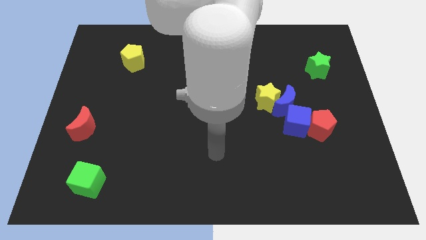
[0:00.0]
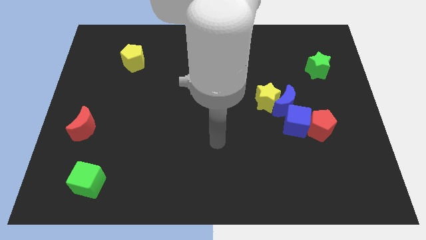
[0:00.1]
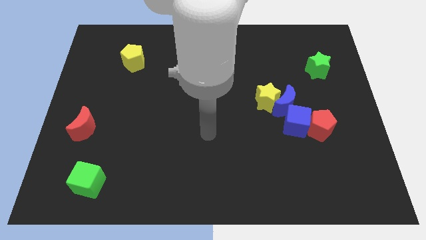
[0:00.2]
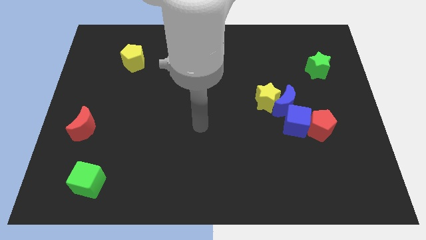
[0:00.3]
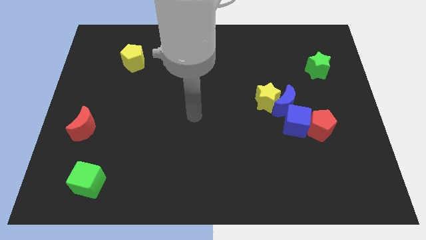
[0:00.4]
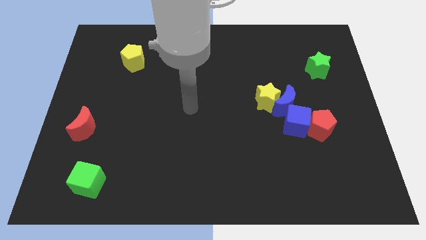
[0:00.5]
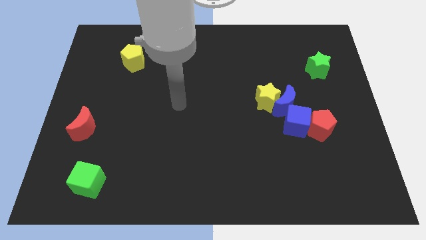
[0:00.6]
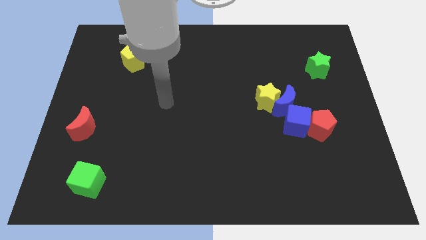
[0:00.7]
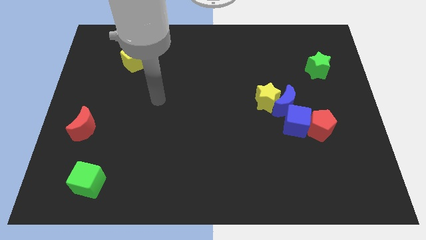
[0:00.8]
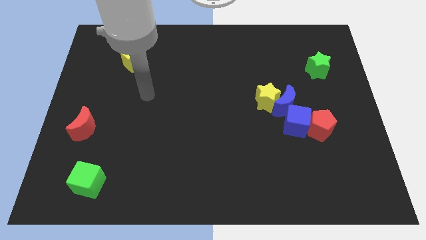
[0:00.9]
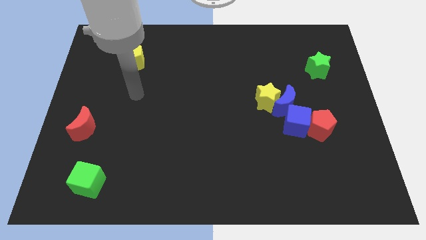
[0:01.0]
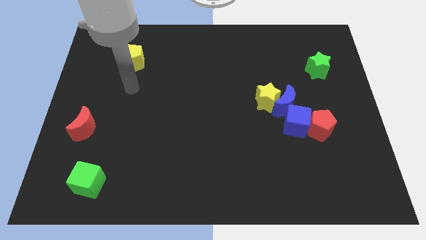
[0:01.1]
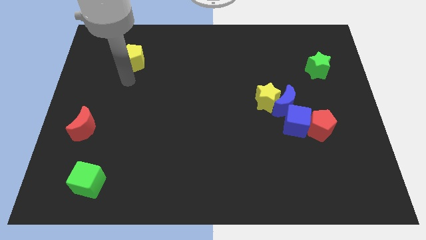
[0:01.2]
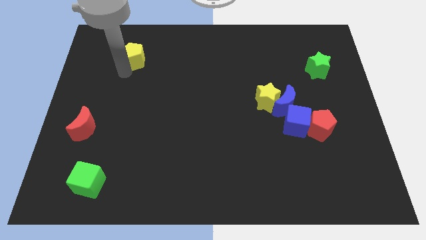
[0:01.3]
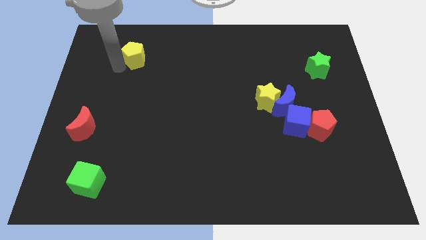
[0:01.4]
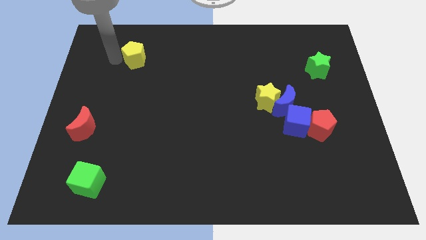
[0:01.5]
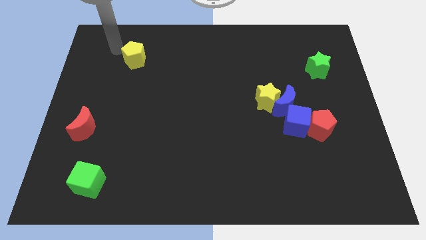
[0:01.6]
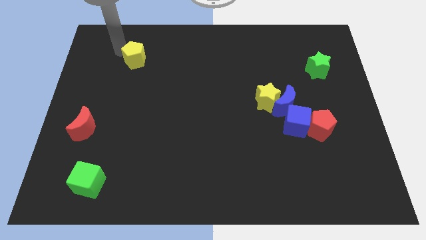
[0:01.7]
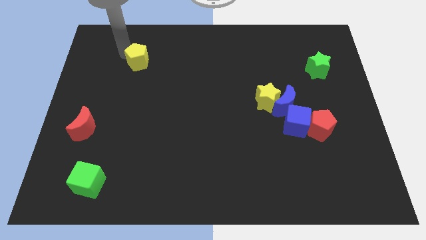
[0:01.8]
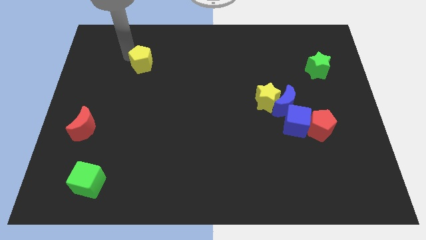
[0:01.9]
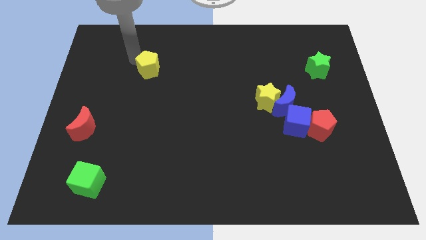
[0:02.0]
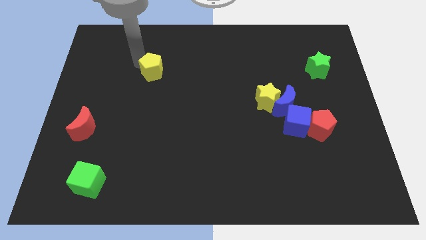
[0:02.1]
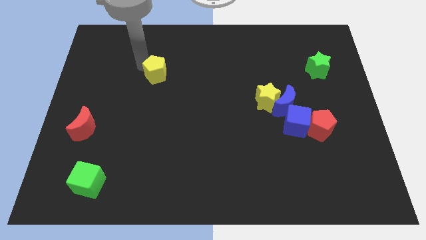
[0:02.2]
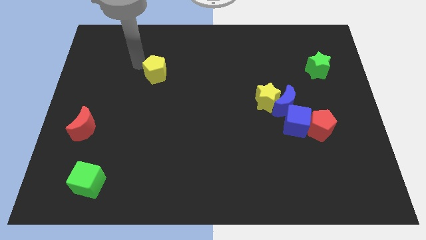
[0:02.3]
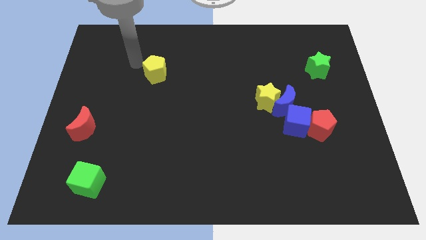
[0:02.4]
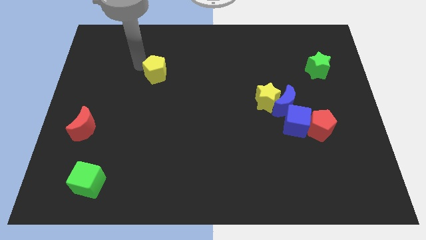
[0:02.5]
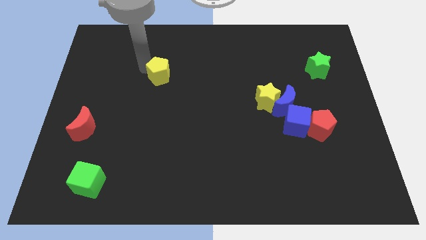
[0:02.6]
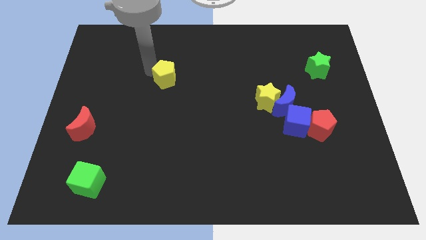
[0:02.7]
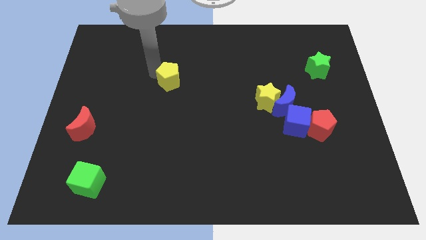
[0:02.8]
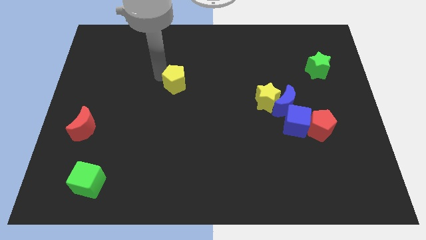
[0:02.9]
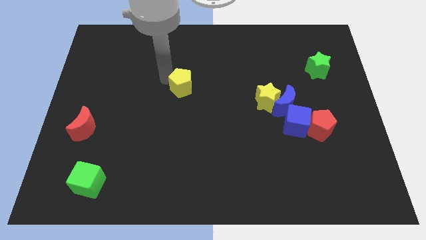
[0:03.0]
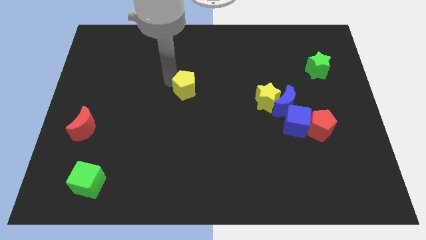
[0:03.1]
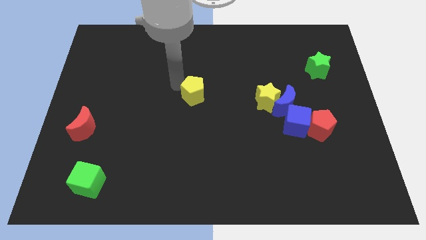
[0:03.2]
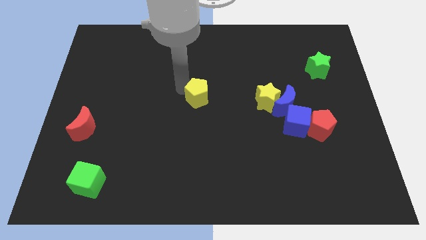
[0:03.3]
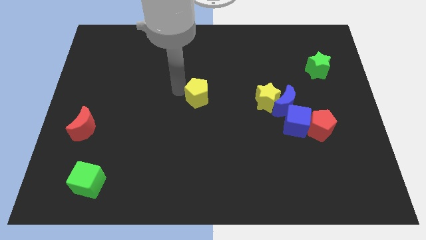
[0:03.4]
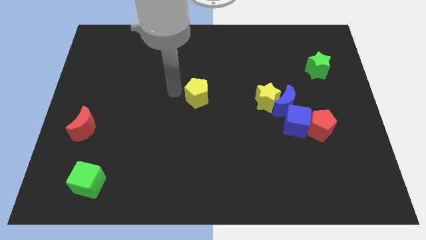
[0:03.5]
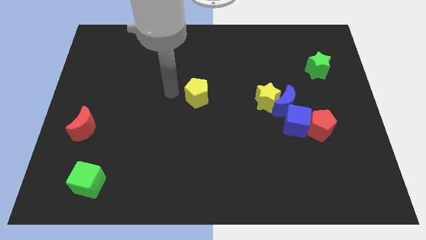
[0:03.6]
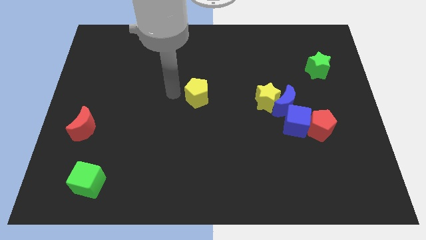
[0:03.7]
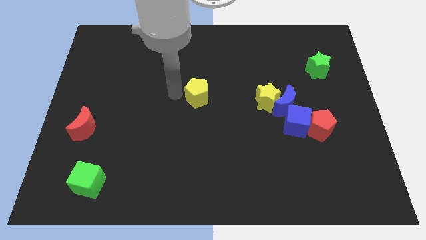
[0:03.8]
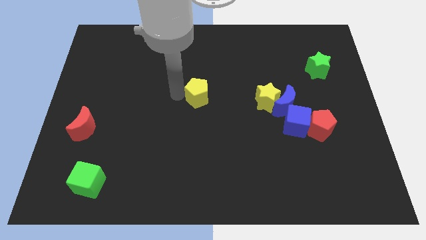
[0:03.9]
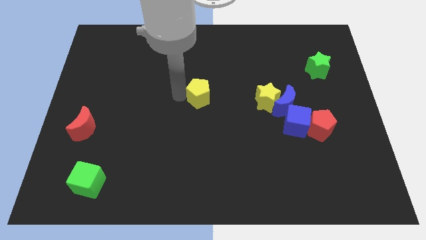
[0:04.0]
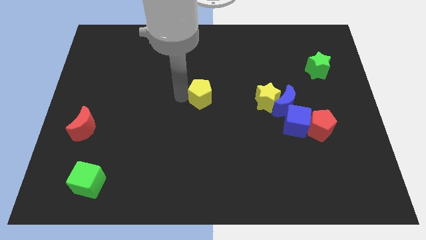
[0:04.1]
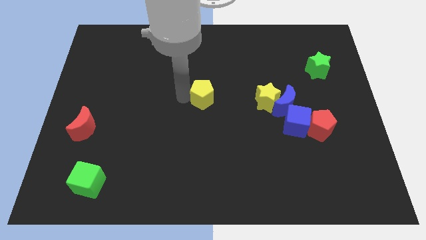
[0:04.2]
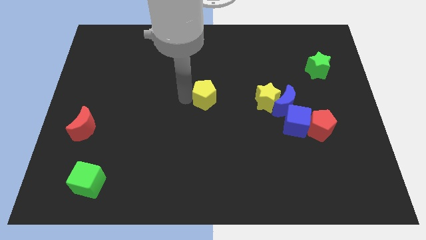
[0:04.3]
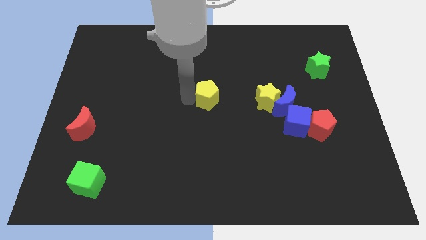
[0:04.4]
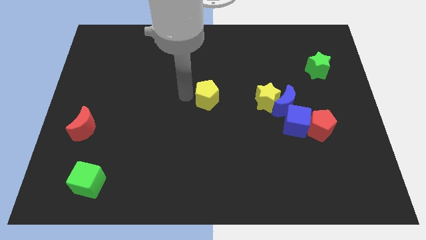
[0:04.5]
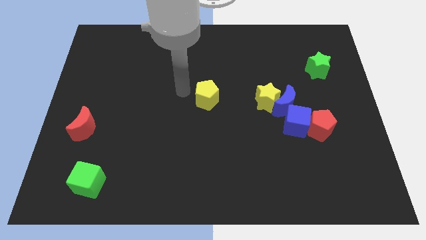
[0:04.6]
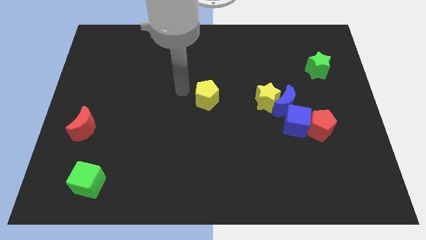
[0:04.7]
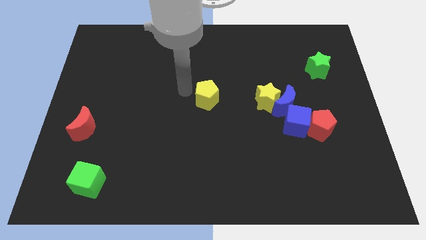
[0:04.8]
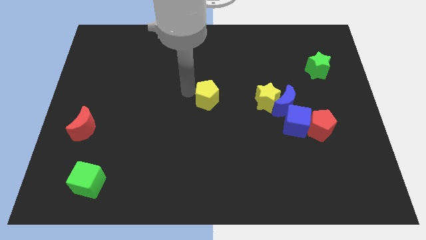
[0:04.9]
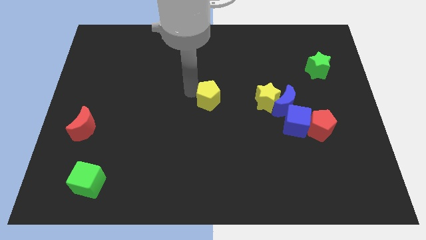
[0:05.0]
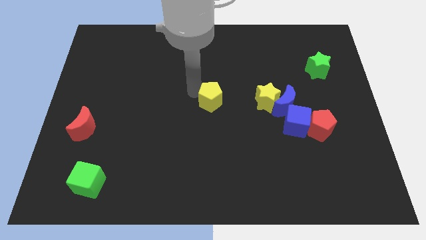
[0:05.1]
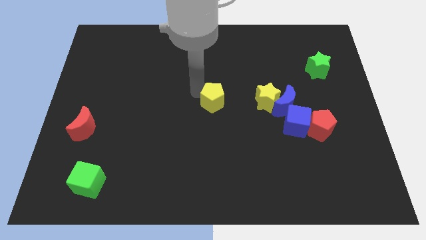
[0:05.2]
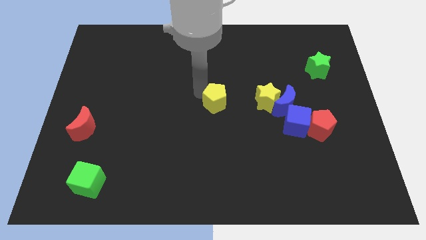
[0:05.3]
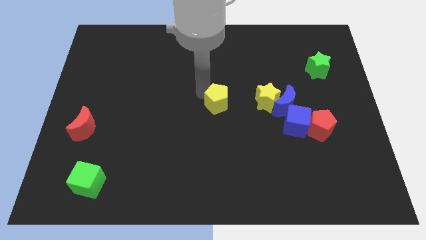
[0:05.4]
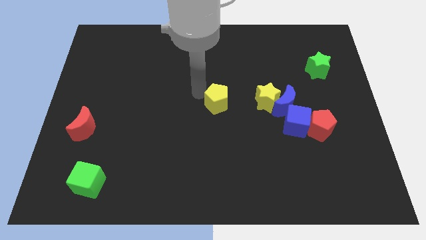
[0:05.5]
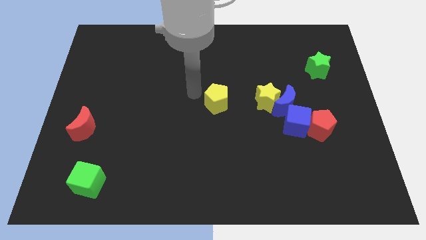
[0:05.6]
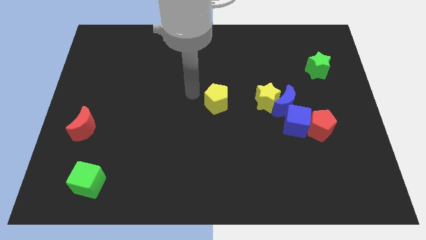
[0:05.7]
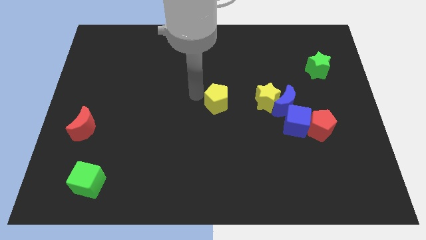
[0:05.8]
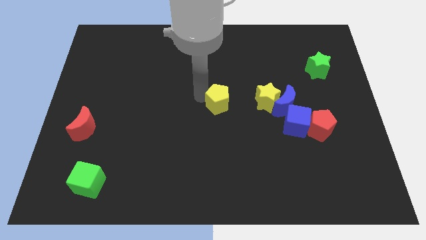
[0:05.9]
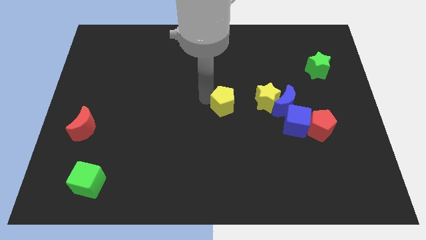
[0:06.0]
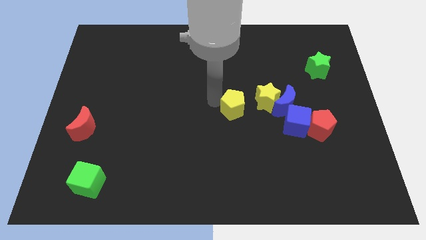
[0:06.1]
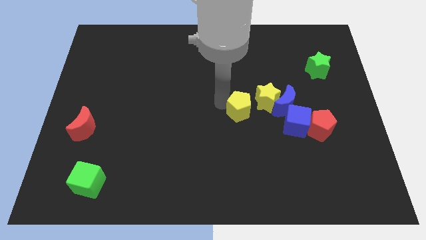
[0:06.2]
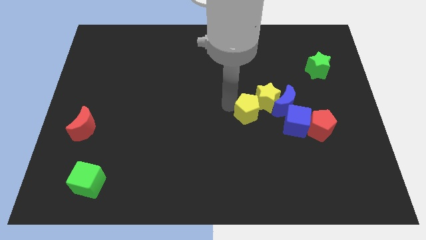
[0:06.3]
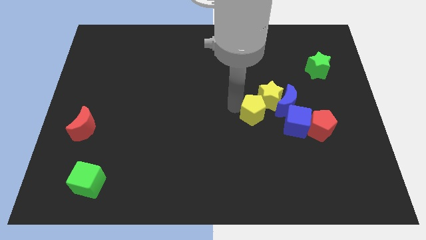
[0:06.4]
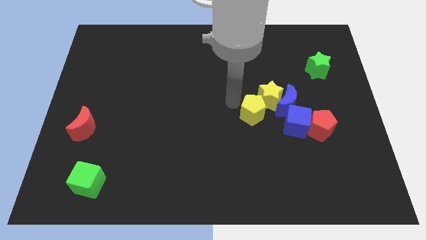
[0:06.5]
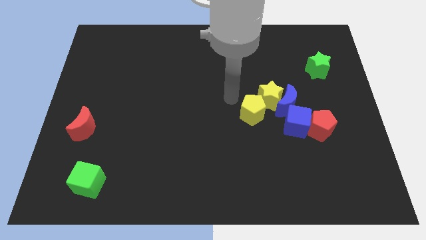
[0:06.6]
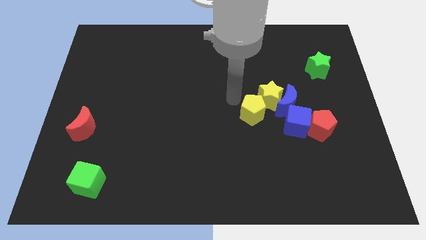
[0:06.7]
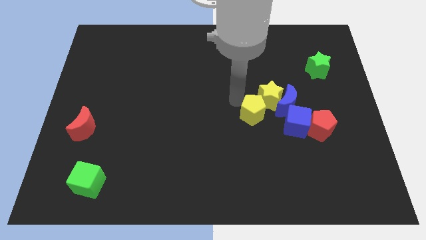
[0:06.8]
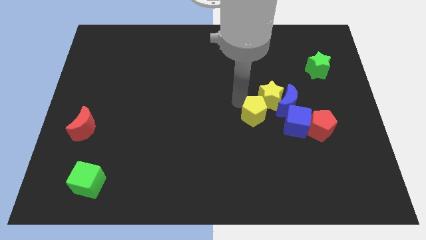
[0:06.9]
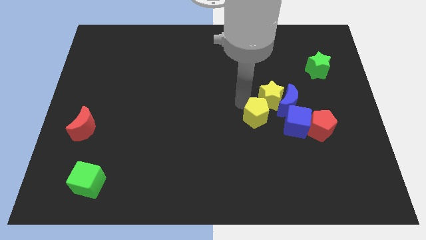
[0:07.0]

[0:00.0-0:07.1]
slide the yellow pentagon to the left side of the red pentagon
